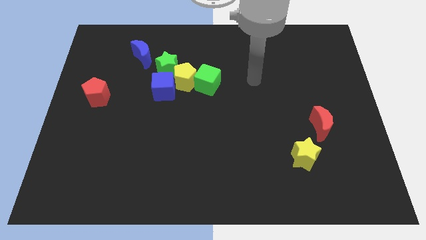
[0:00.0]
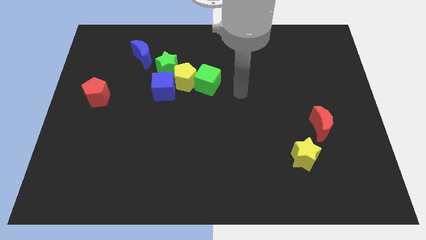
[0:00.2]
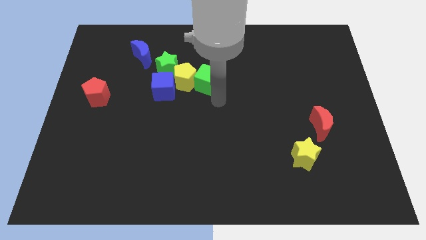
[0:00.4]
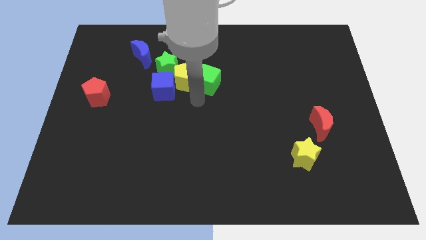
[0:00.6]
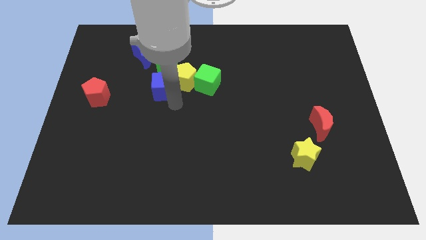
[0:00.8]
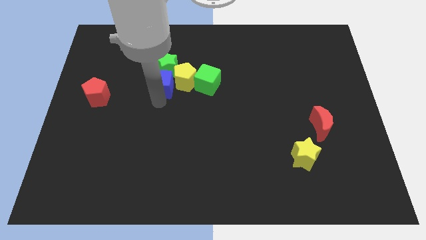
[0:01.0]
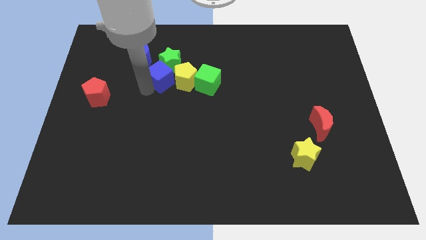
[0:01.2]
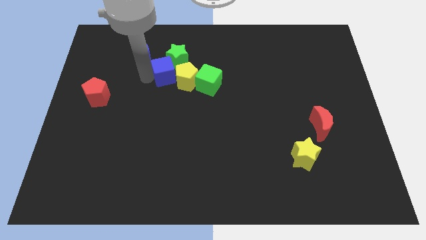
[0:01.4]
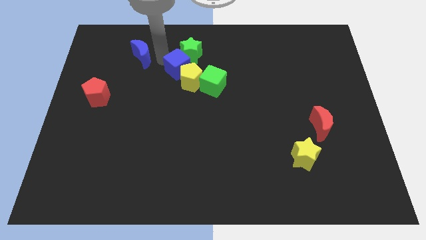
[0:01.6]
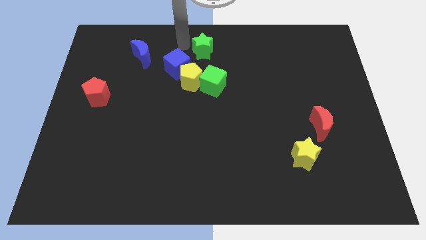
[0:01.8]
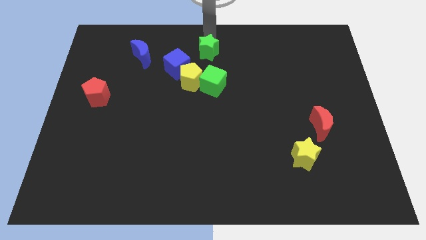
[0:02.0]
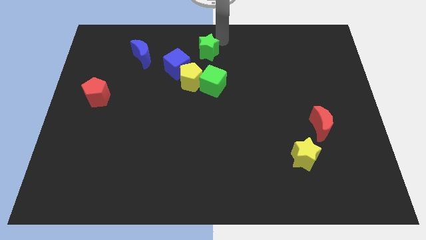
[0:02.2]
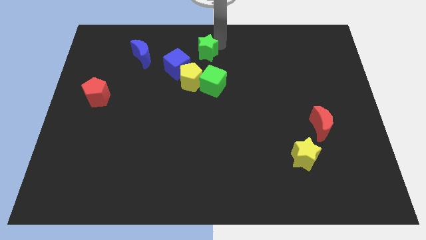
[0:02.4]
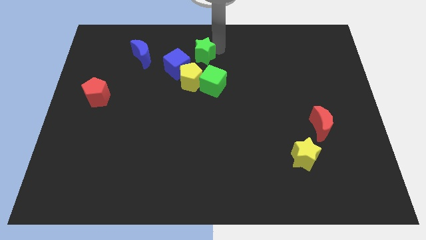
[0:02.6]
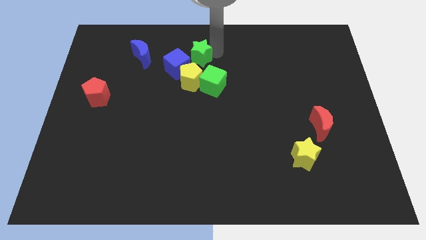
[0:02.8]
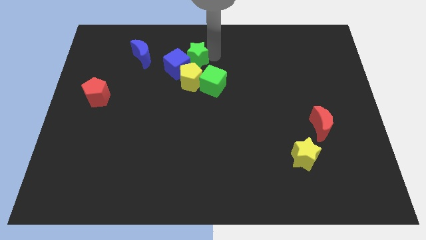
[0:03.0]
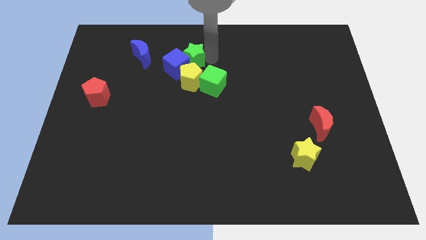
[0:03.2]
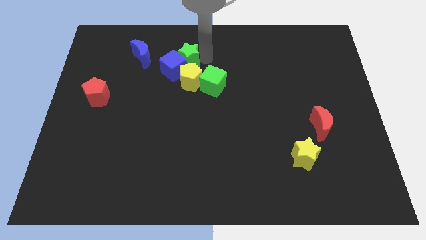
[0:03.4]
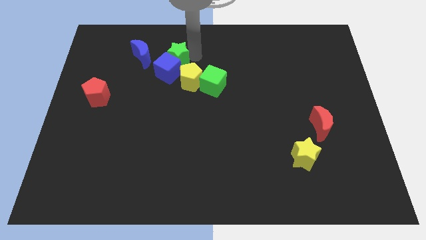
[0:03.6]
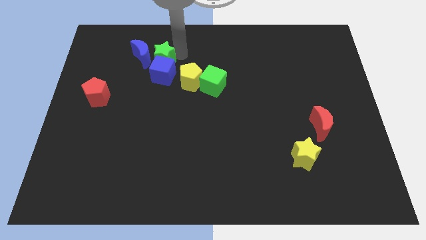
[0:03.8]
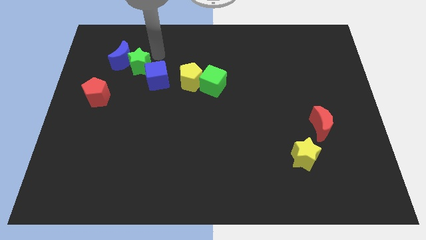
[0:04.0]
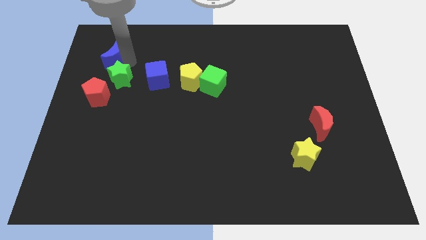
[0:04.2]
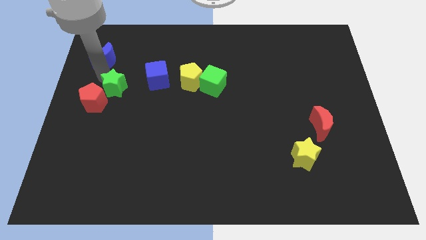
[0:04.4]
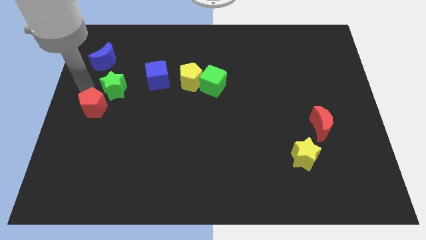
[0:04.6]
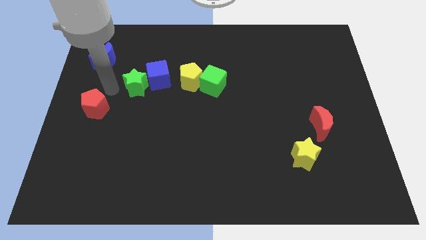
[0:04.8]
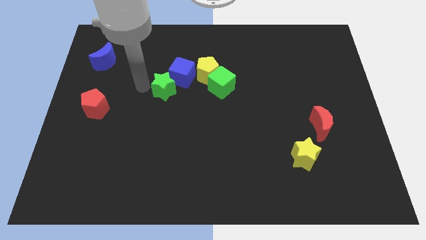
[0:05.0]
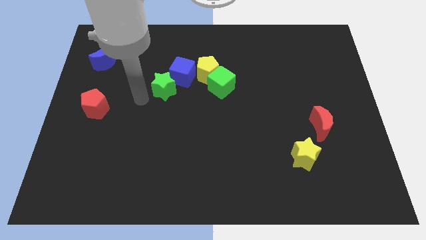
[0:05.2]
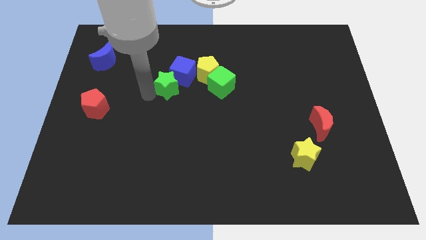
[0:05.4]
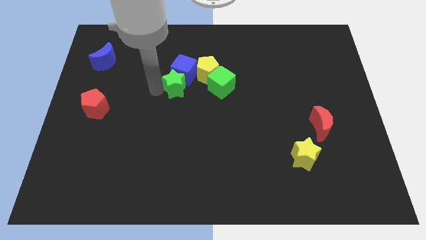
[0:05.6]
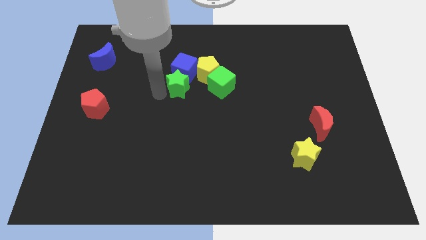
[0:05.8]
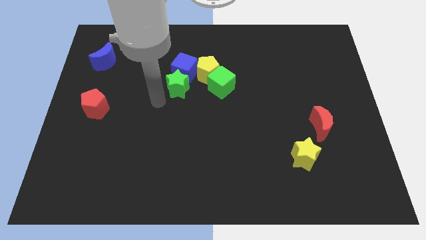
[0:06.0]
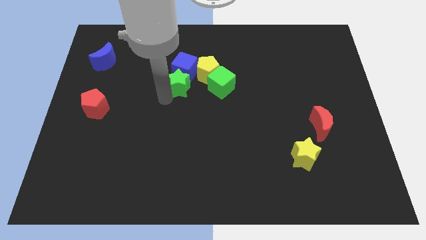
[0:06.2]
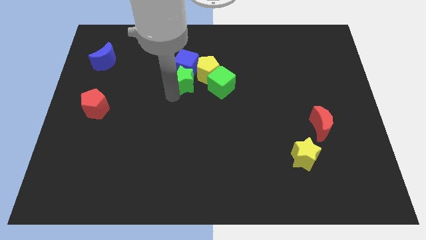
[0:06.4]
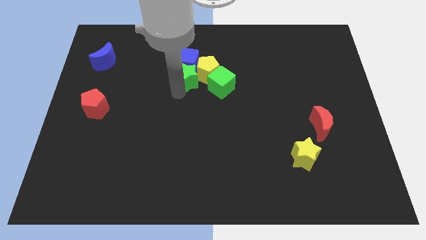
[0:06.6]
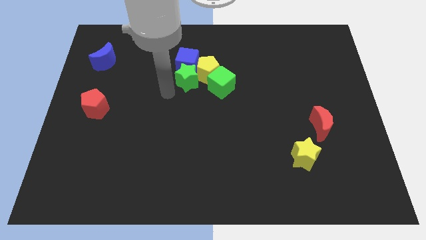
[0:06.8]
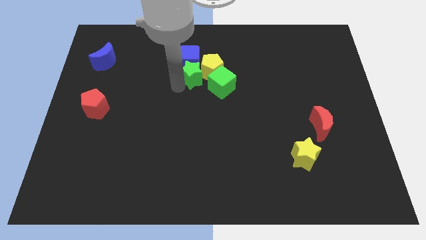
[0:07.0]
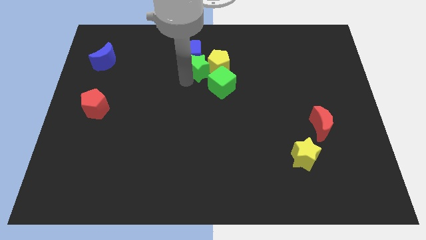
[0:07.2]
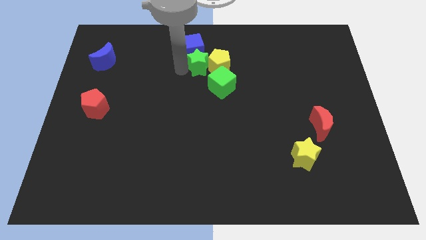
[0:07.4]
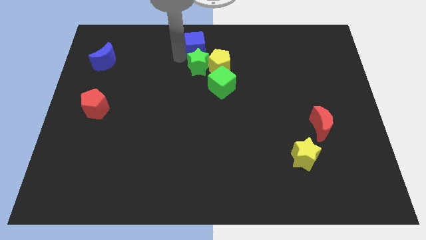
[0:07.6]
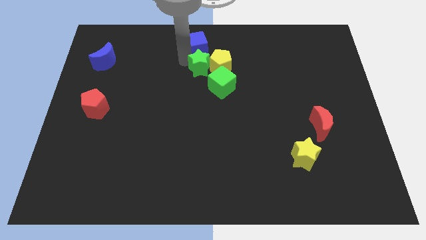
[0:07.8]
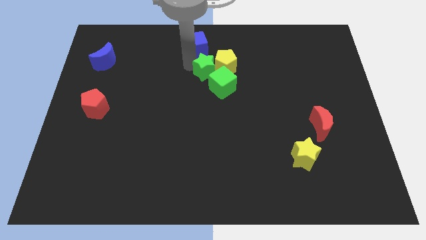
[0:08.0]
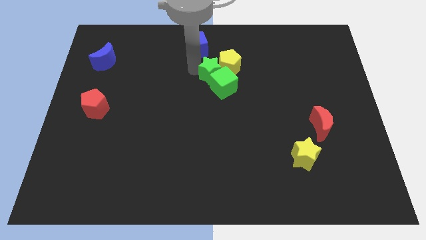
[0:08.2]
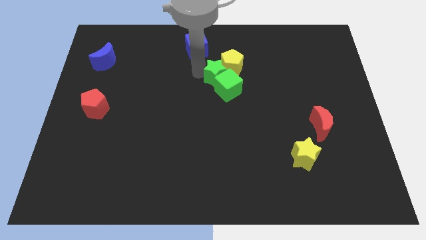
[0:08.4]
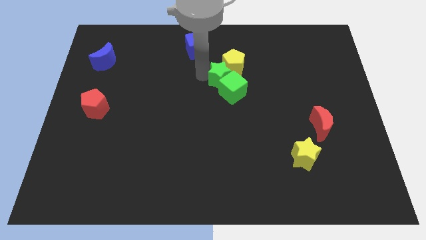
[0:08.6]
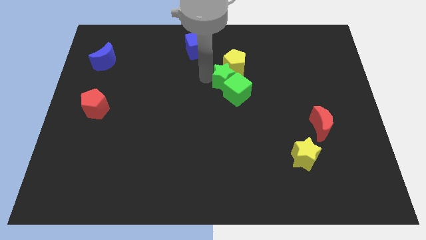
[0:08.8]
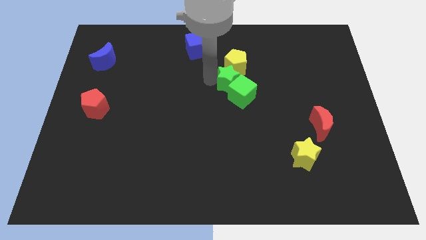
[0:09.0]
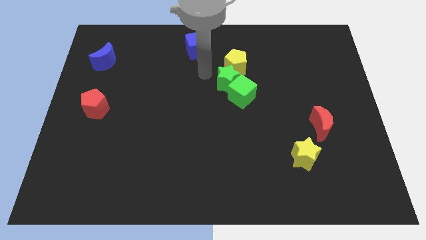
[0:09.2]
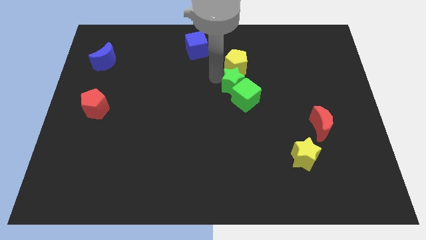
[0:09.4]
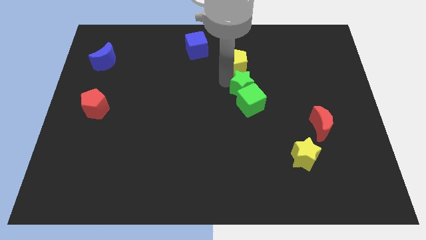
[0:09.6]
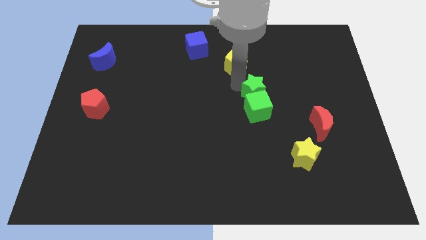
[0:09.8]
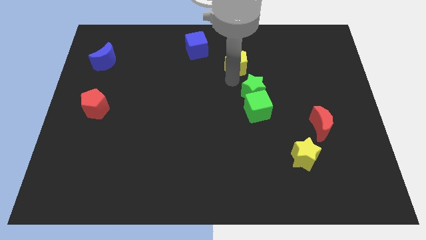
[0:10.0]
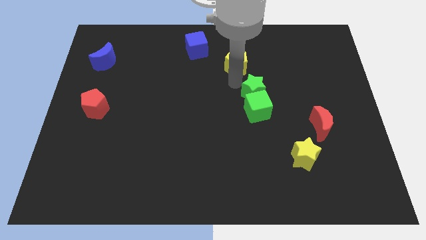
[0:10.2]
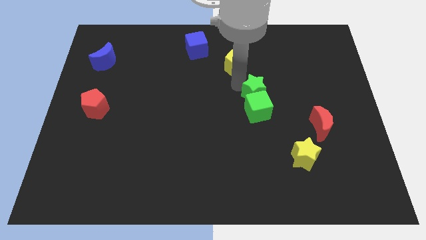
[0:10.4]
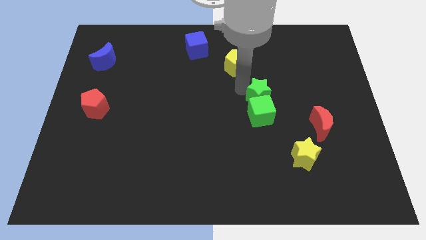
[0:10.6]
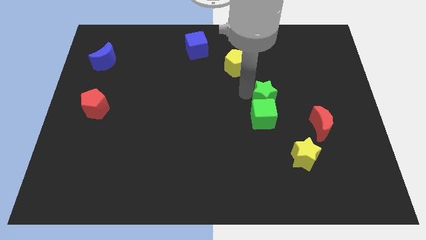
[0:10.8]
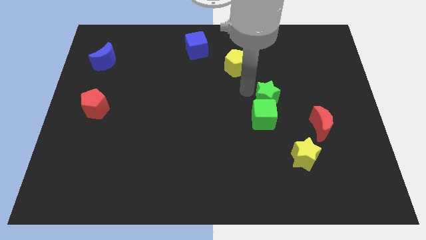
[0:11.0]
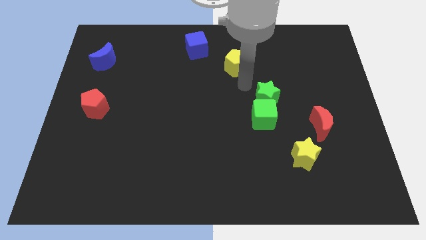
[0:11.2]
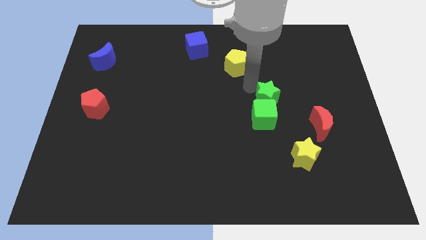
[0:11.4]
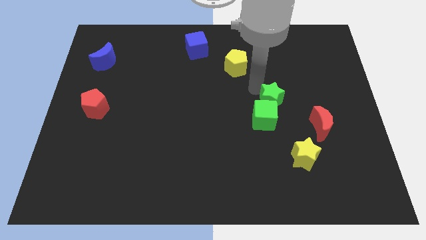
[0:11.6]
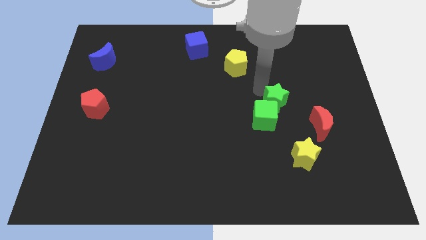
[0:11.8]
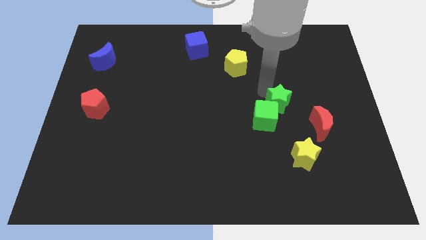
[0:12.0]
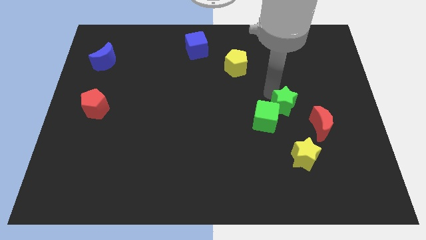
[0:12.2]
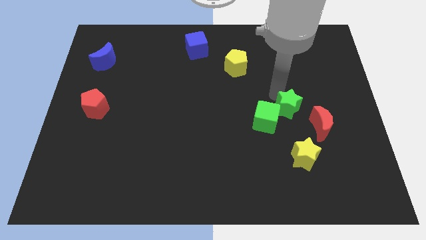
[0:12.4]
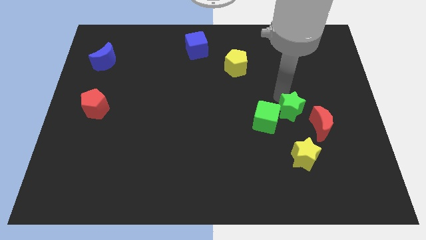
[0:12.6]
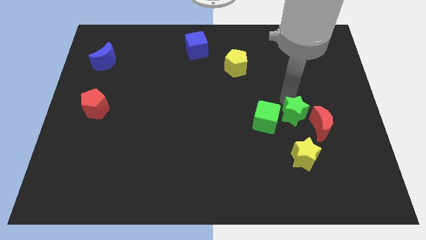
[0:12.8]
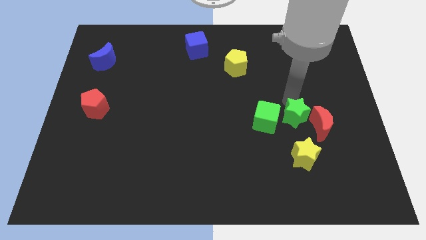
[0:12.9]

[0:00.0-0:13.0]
push the green star towards the red moon

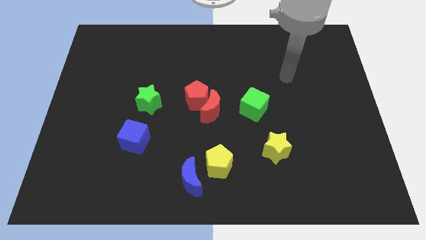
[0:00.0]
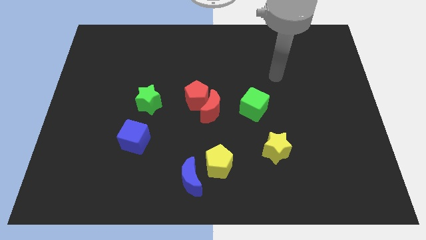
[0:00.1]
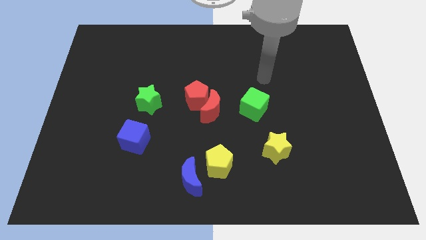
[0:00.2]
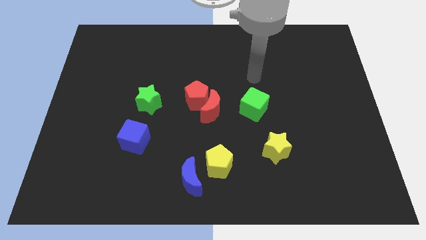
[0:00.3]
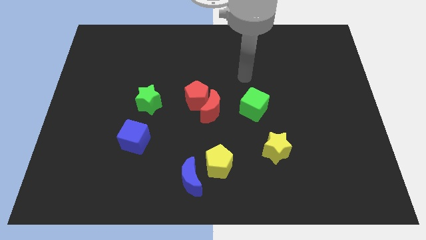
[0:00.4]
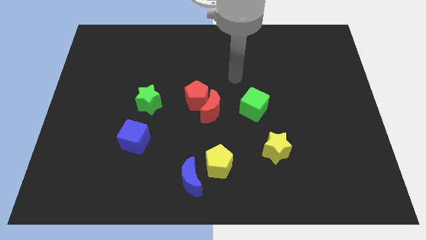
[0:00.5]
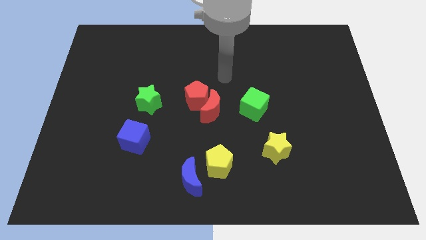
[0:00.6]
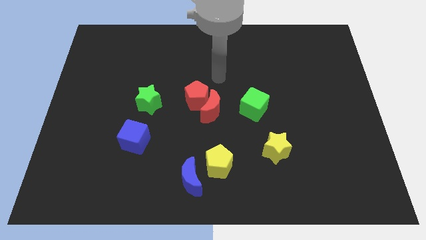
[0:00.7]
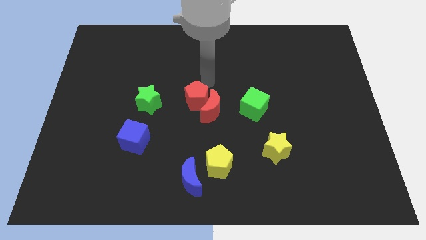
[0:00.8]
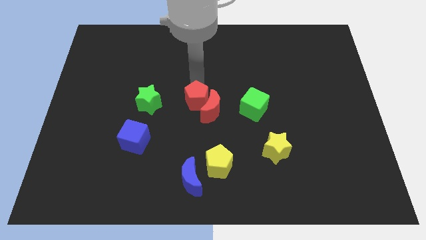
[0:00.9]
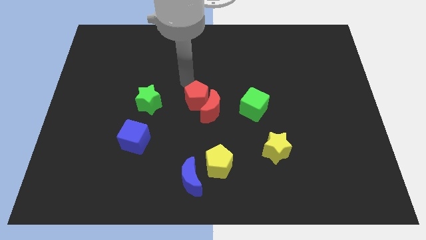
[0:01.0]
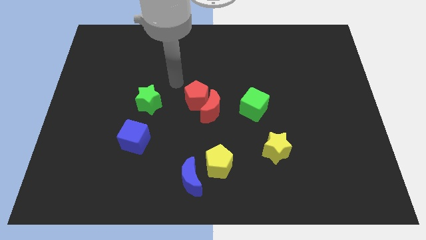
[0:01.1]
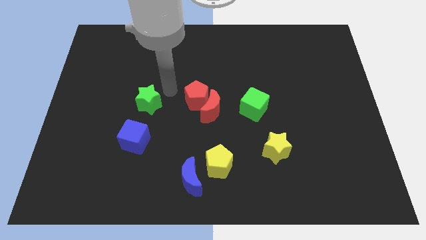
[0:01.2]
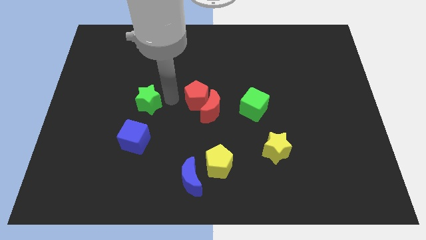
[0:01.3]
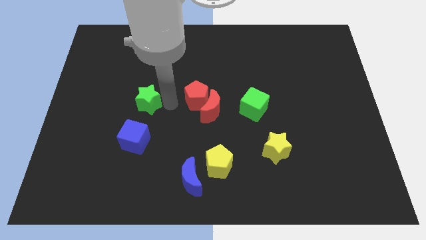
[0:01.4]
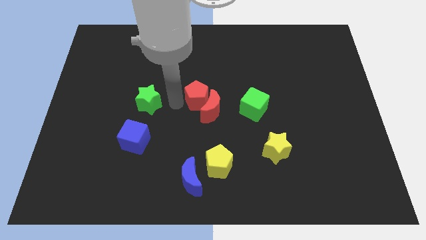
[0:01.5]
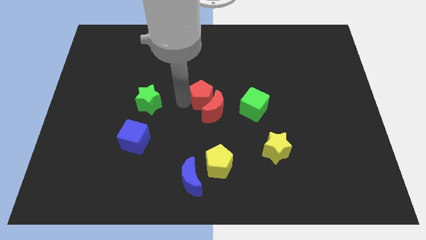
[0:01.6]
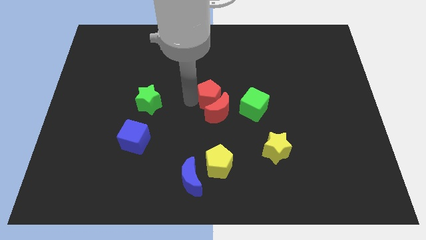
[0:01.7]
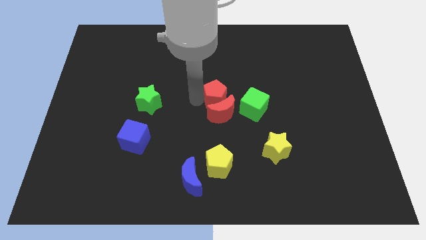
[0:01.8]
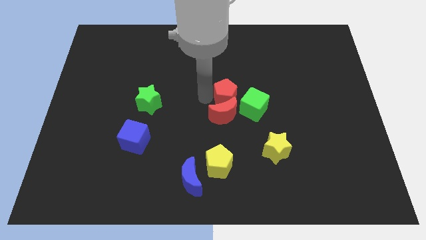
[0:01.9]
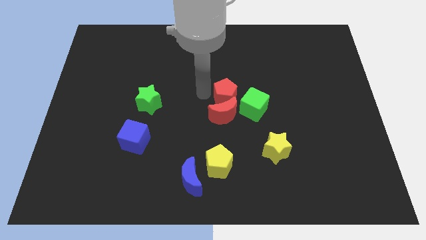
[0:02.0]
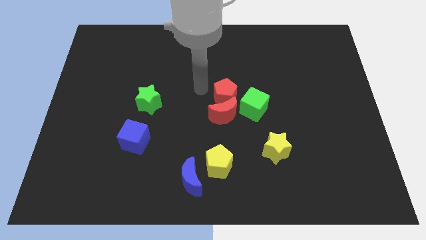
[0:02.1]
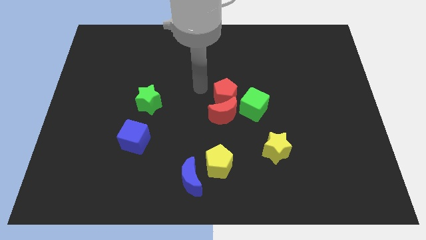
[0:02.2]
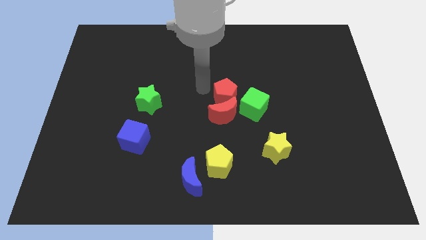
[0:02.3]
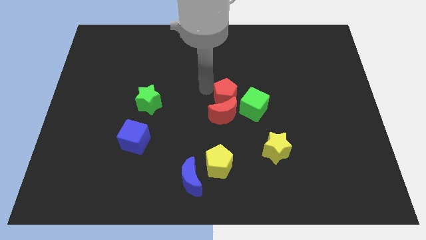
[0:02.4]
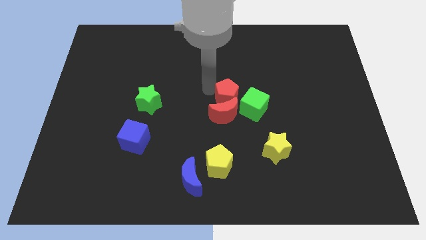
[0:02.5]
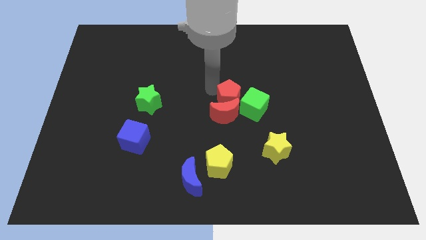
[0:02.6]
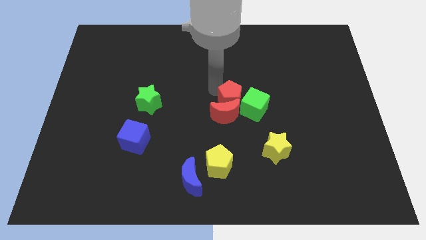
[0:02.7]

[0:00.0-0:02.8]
move the red pentagon next to the green cube
